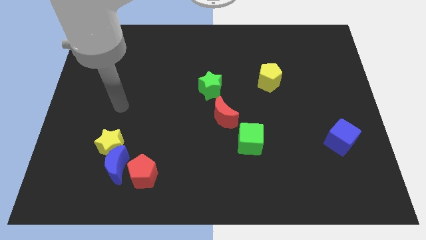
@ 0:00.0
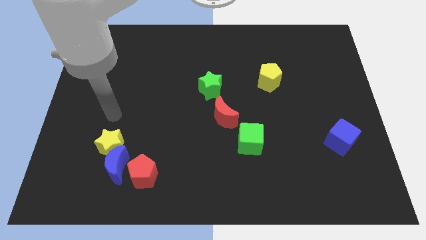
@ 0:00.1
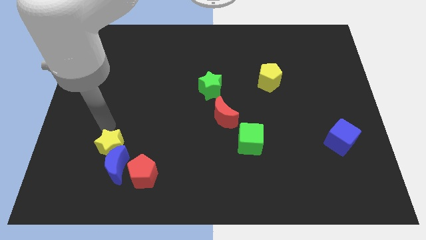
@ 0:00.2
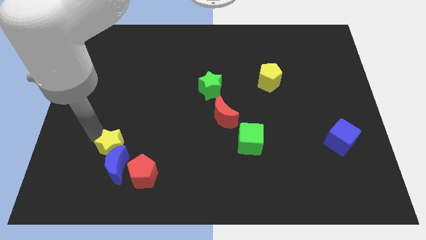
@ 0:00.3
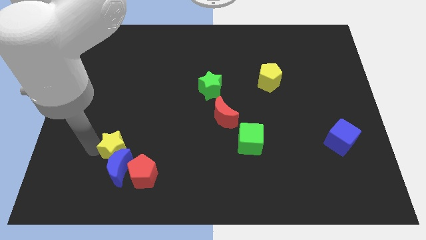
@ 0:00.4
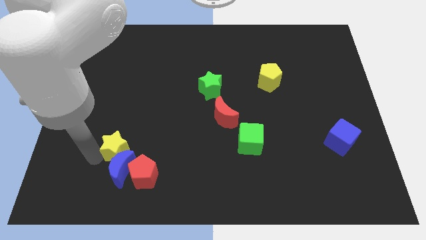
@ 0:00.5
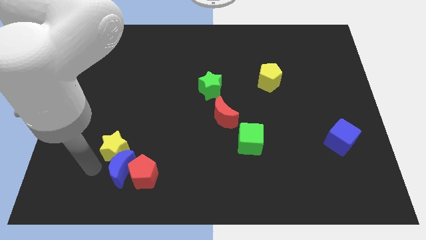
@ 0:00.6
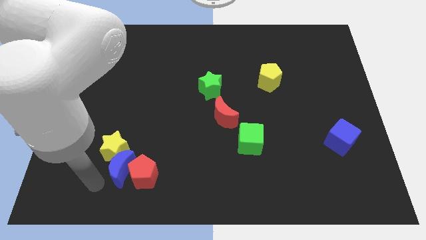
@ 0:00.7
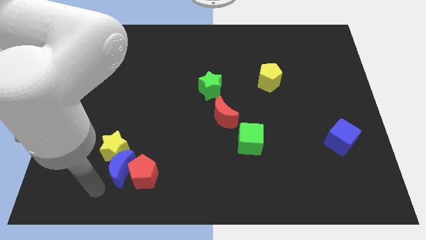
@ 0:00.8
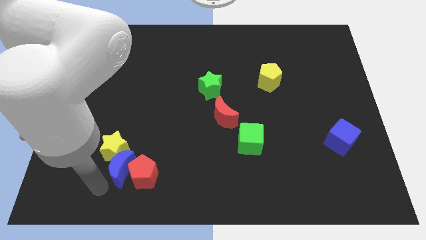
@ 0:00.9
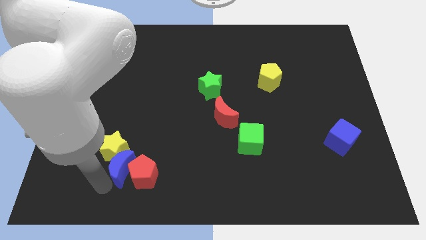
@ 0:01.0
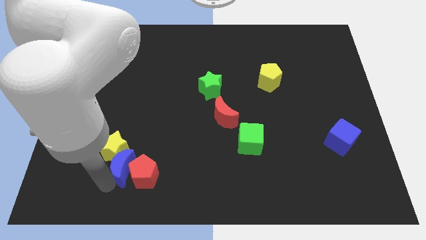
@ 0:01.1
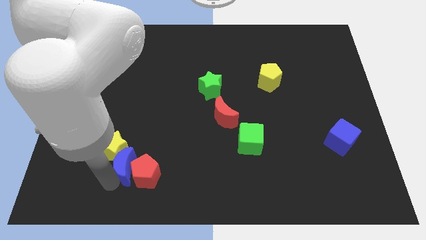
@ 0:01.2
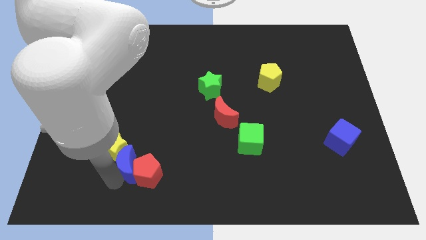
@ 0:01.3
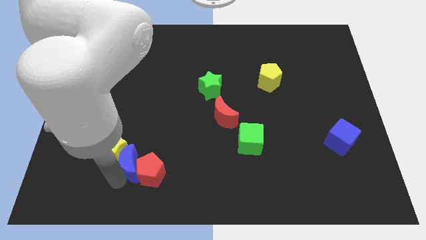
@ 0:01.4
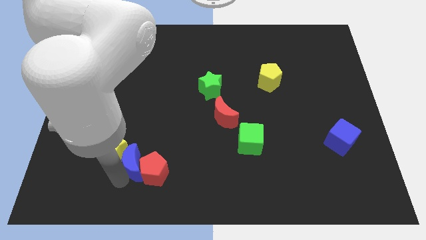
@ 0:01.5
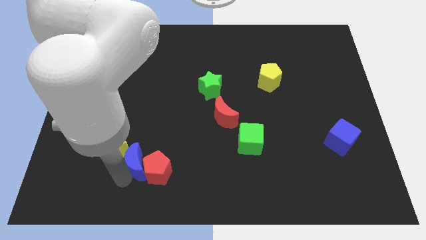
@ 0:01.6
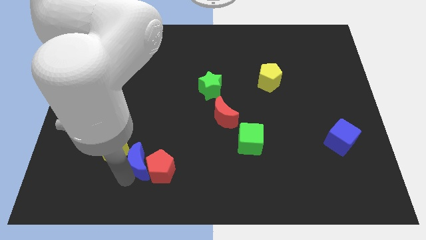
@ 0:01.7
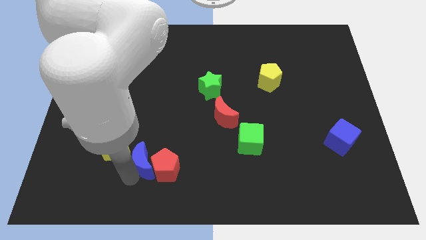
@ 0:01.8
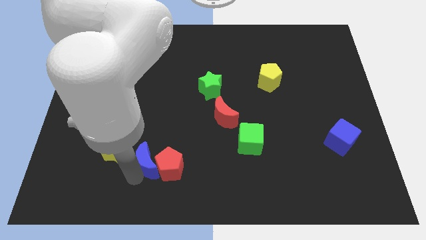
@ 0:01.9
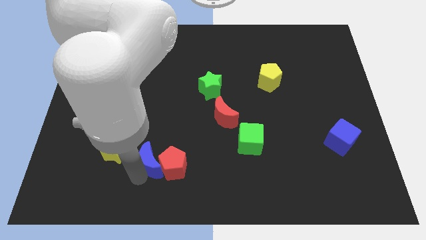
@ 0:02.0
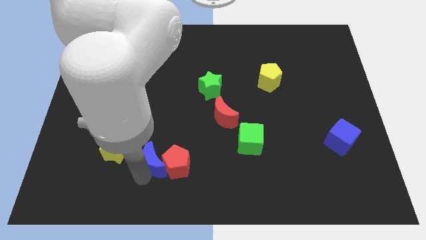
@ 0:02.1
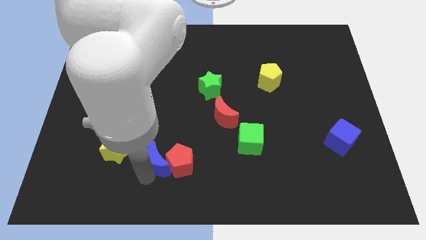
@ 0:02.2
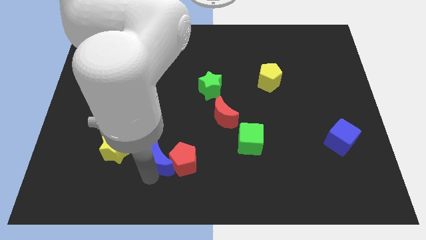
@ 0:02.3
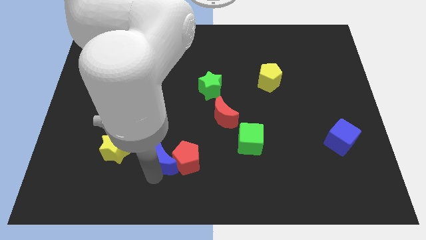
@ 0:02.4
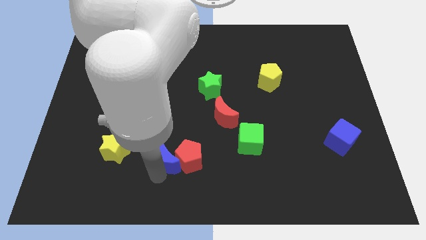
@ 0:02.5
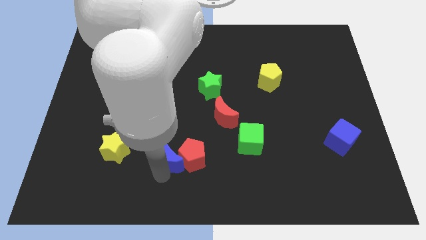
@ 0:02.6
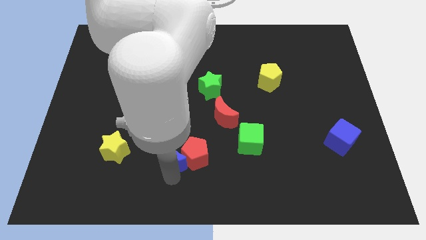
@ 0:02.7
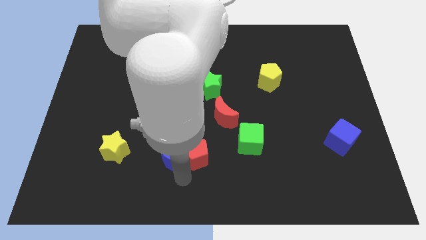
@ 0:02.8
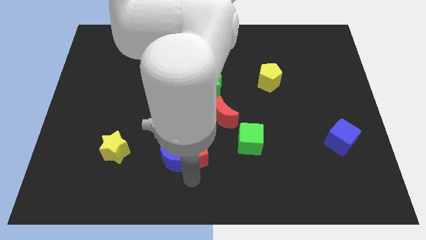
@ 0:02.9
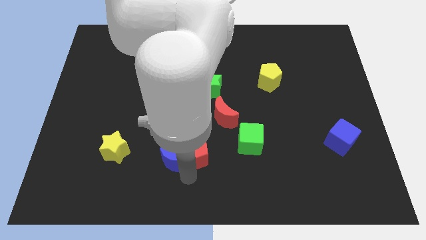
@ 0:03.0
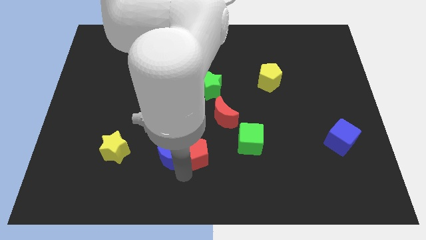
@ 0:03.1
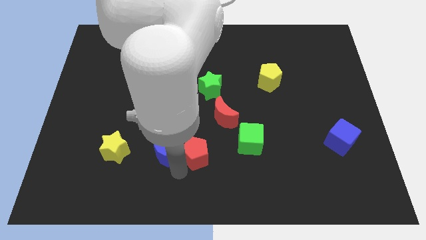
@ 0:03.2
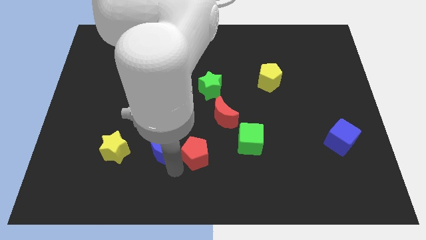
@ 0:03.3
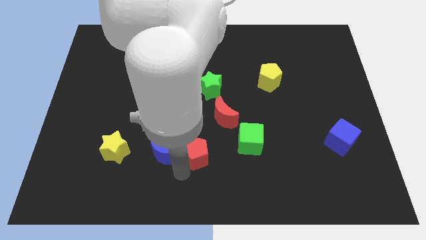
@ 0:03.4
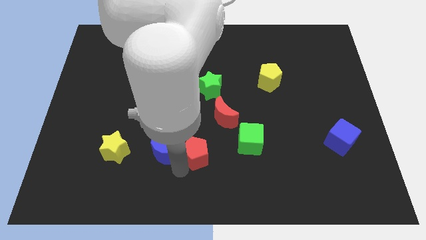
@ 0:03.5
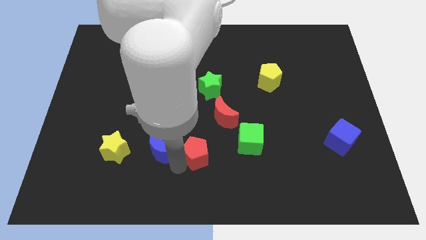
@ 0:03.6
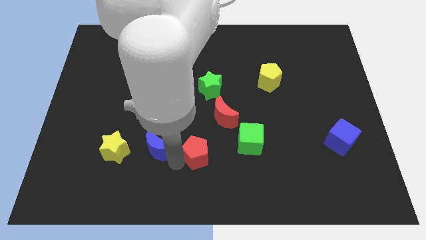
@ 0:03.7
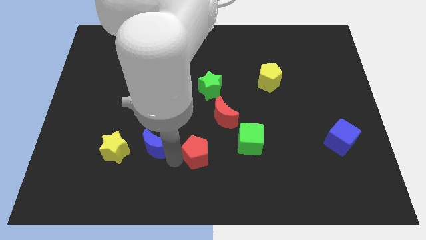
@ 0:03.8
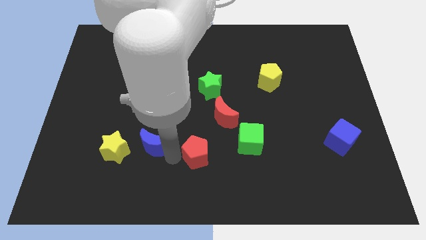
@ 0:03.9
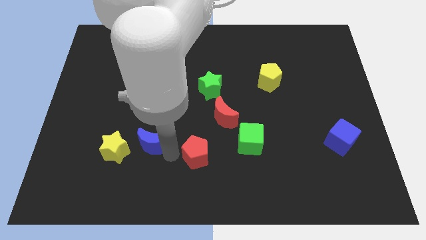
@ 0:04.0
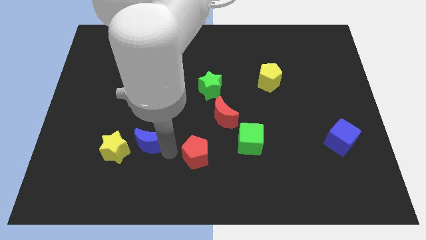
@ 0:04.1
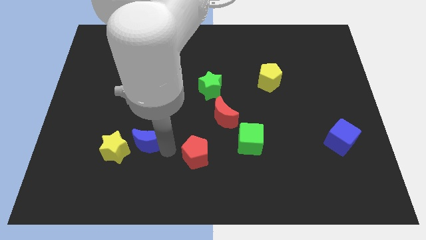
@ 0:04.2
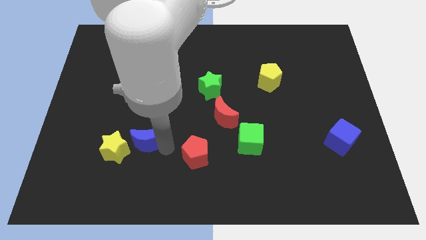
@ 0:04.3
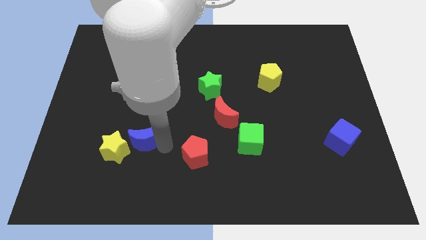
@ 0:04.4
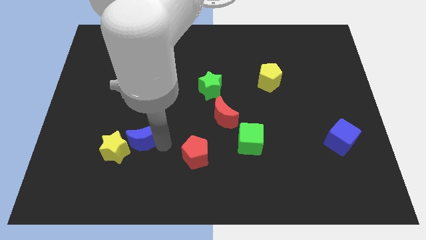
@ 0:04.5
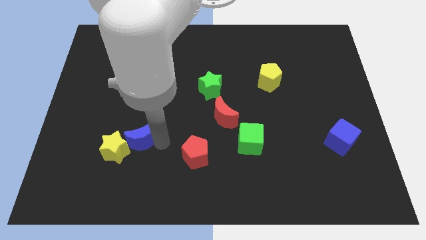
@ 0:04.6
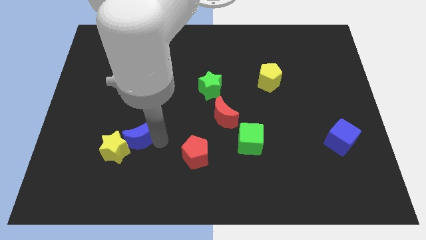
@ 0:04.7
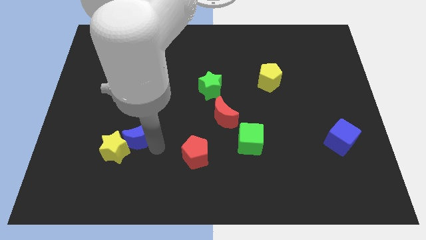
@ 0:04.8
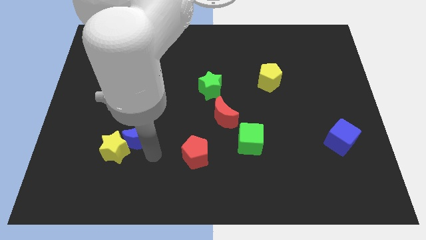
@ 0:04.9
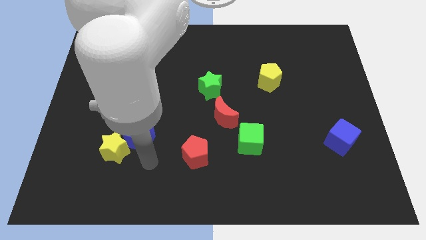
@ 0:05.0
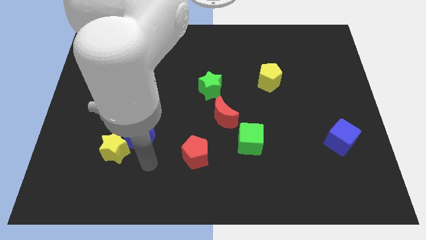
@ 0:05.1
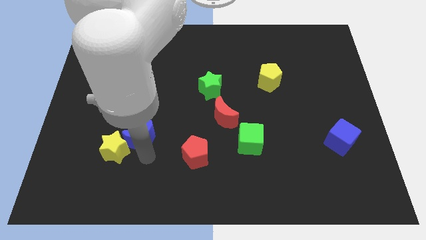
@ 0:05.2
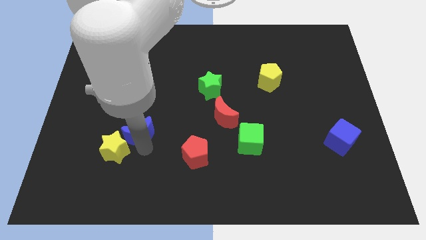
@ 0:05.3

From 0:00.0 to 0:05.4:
slightly slide the blue moon upwards

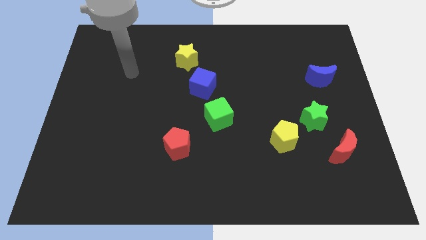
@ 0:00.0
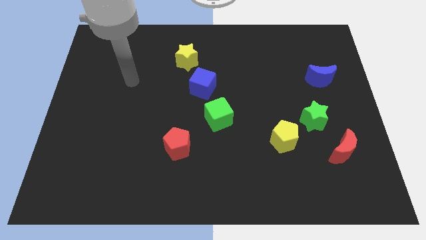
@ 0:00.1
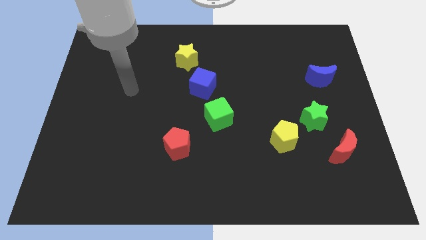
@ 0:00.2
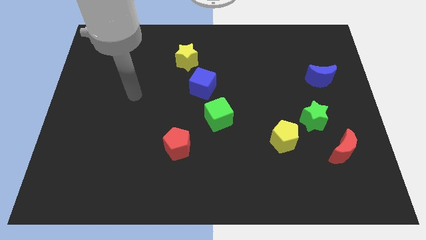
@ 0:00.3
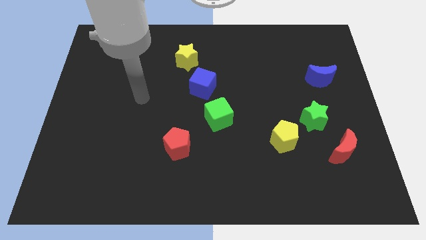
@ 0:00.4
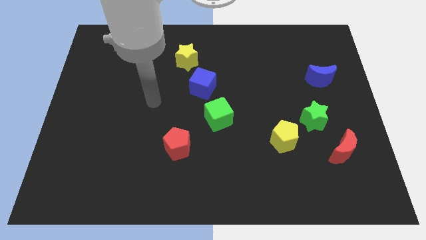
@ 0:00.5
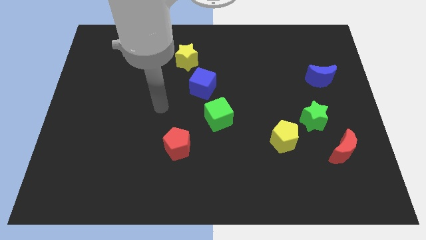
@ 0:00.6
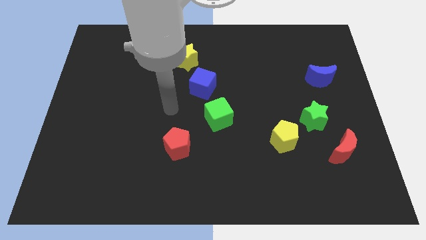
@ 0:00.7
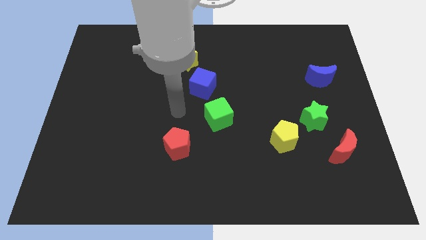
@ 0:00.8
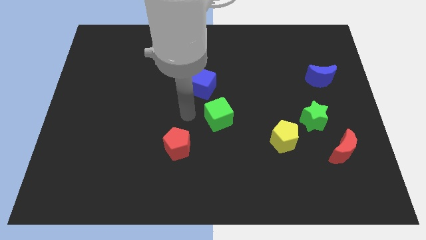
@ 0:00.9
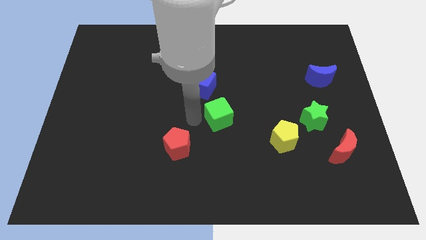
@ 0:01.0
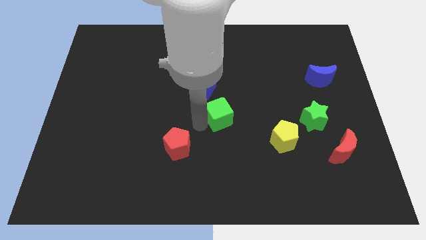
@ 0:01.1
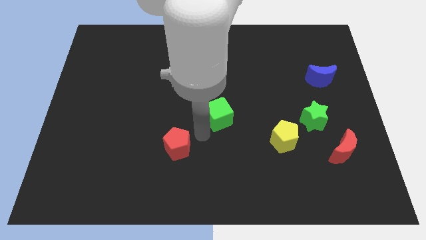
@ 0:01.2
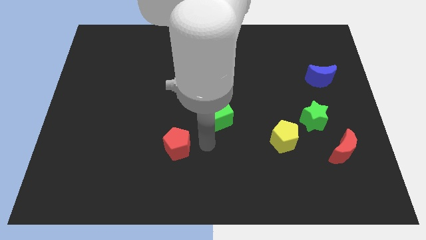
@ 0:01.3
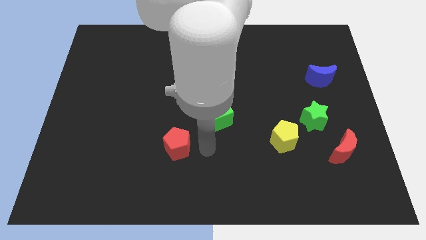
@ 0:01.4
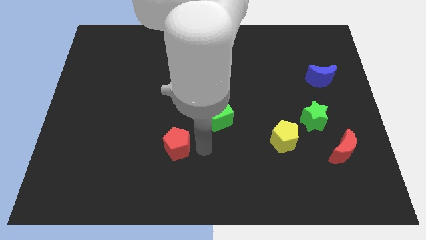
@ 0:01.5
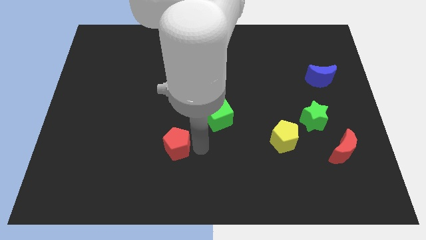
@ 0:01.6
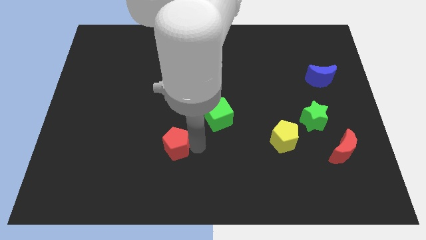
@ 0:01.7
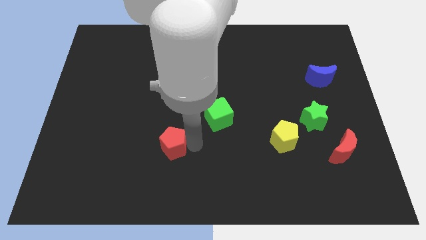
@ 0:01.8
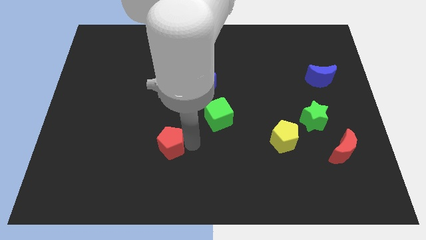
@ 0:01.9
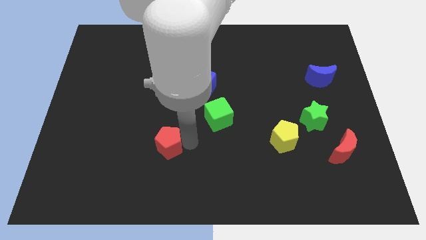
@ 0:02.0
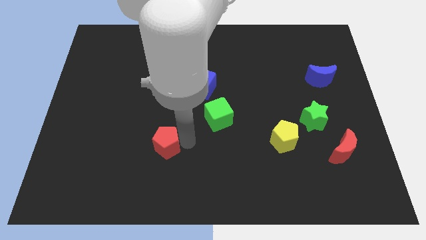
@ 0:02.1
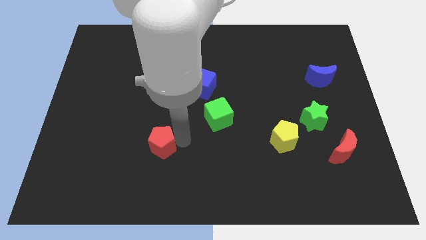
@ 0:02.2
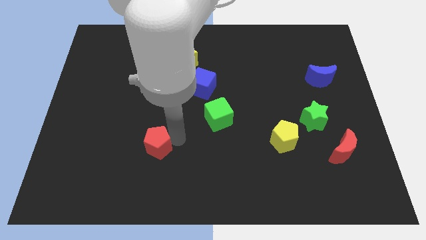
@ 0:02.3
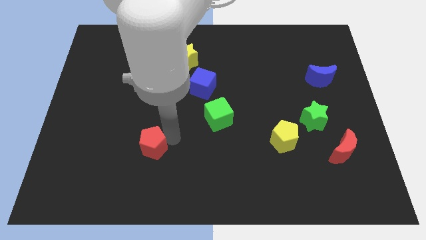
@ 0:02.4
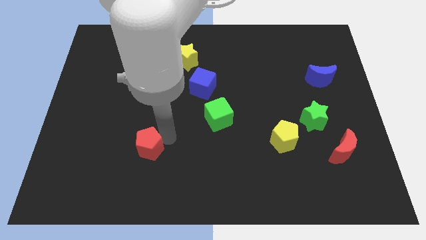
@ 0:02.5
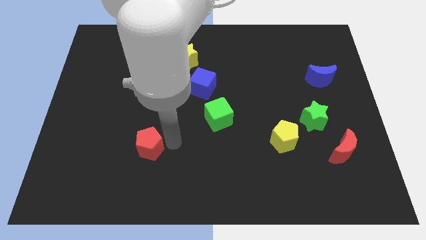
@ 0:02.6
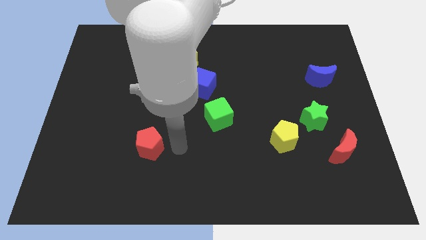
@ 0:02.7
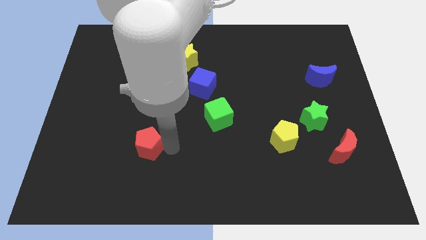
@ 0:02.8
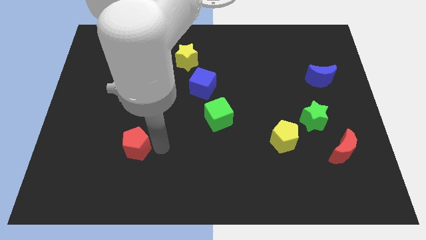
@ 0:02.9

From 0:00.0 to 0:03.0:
slightly push the red pentagon to the left
